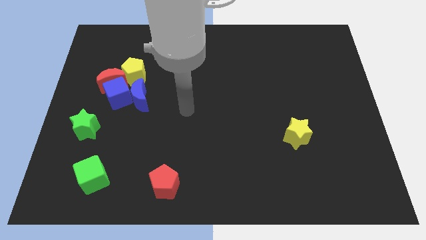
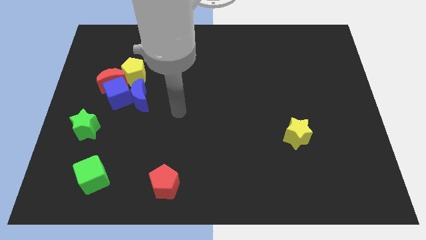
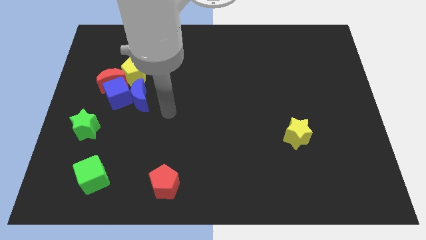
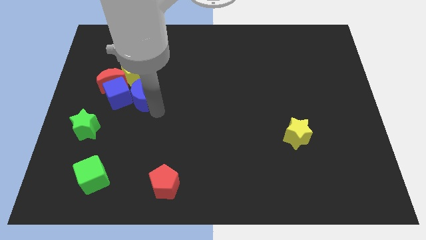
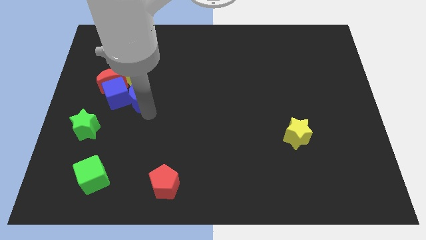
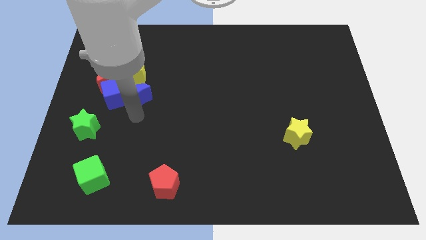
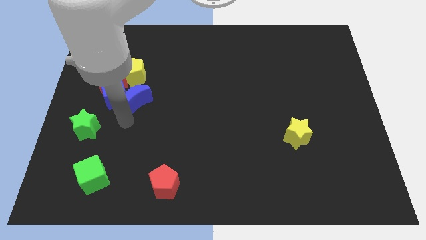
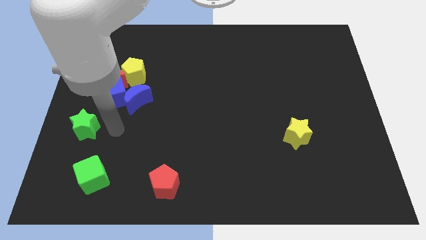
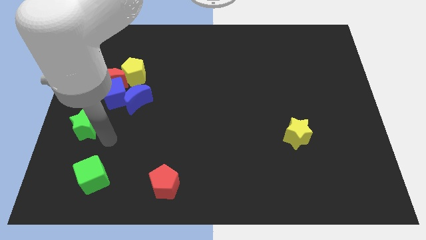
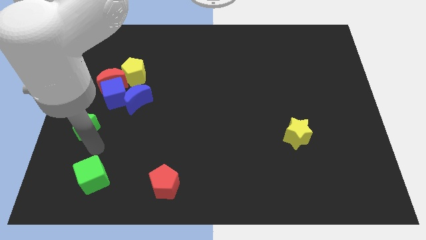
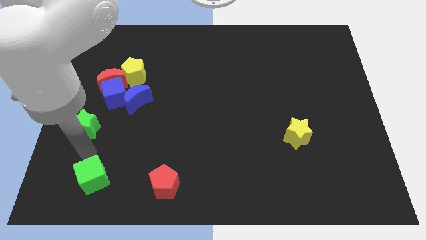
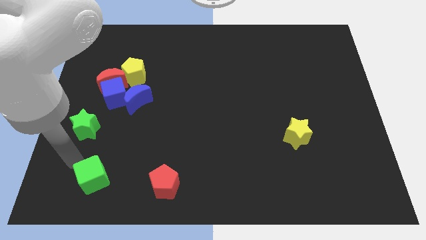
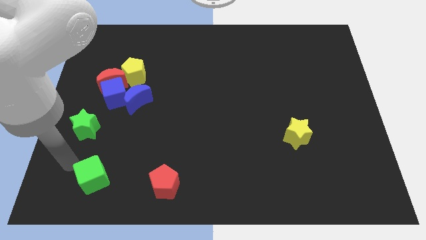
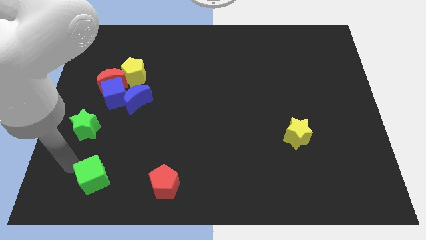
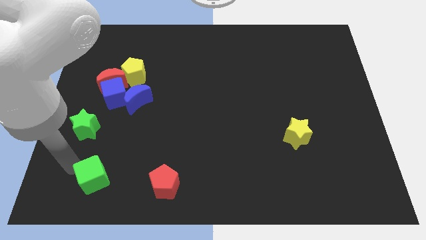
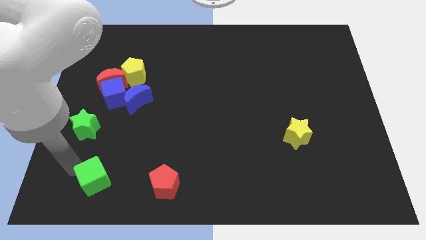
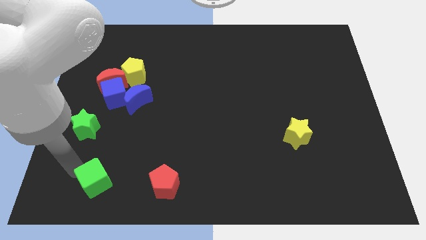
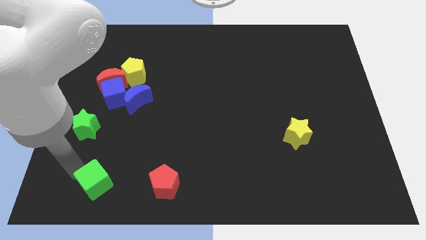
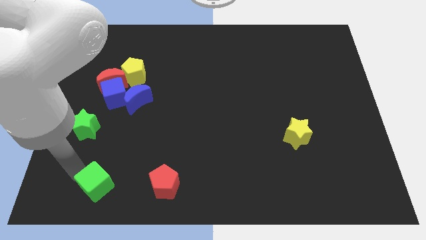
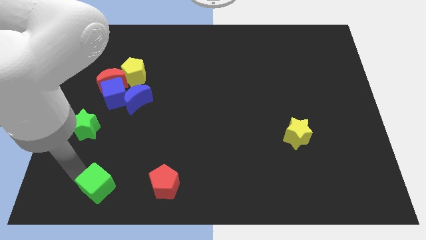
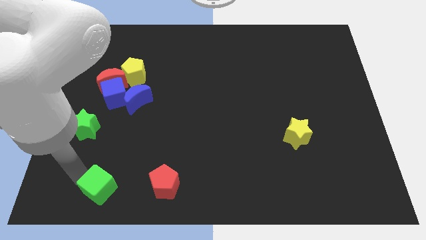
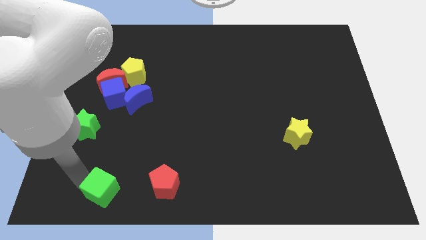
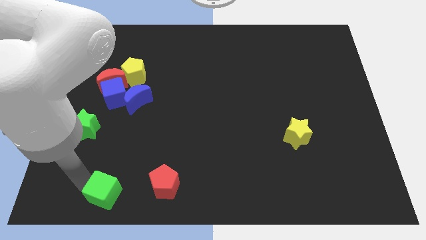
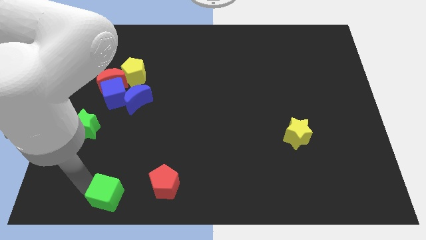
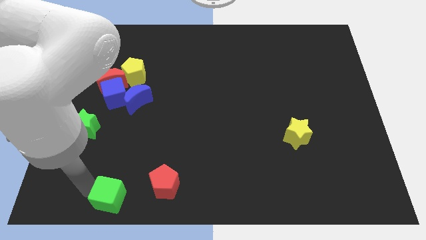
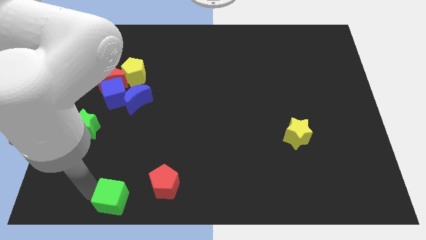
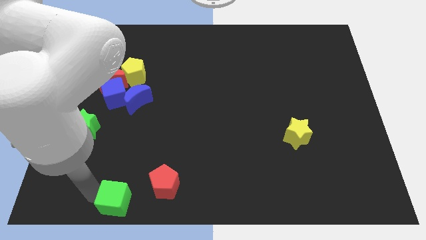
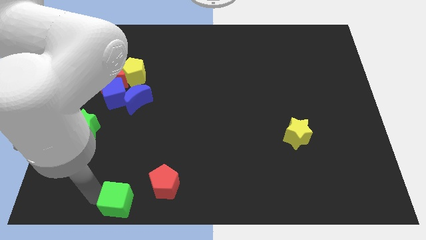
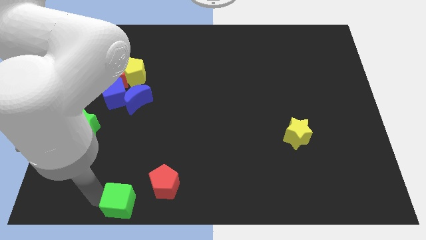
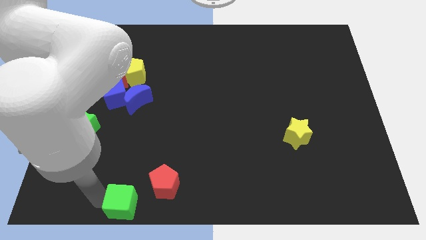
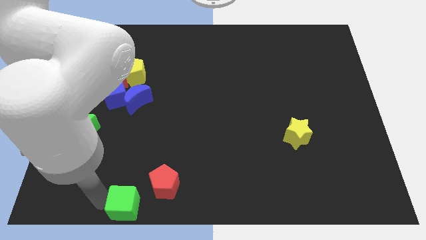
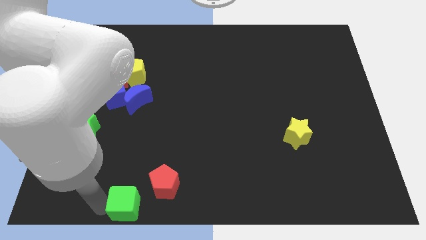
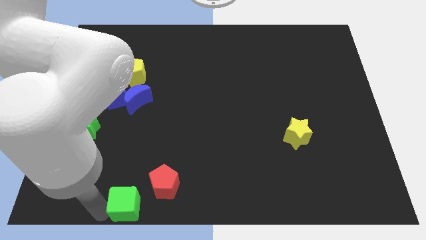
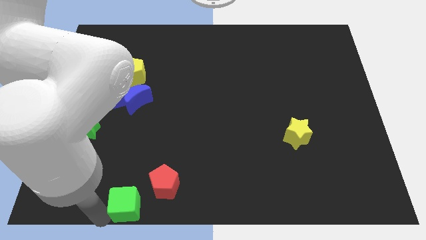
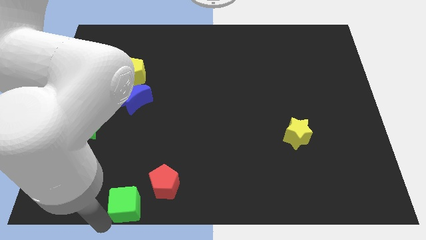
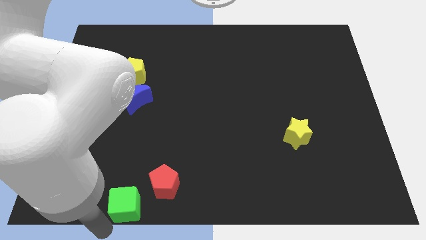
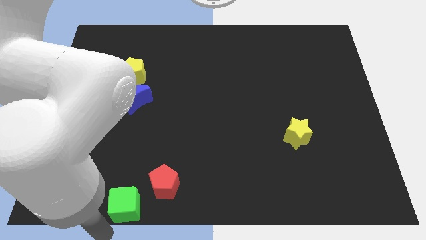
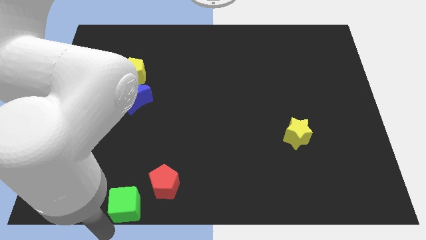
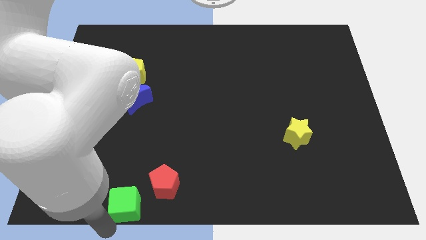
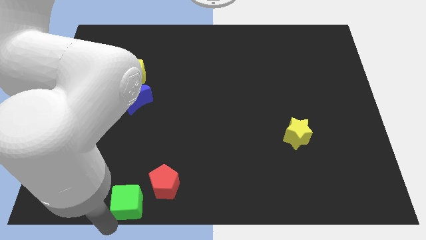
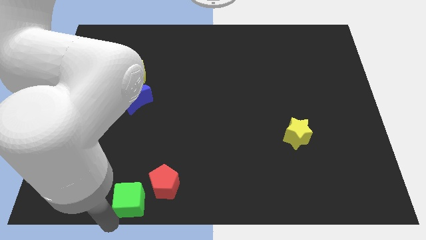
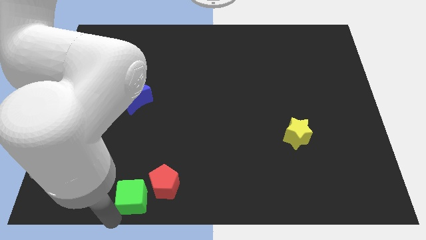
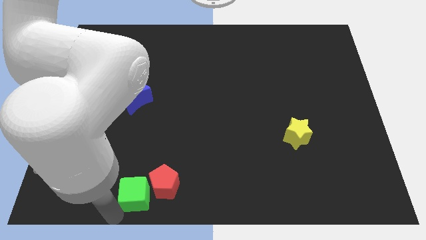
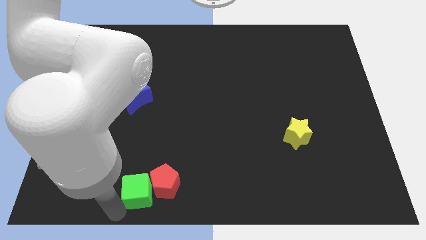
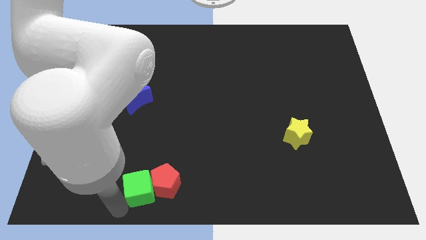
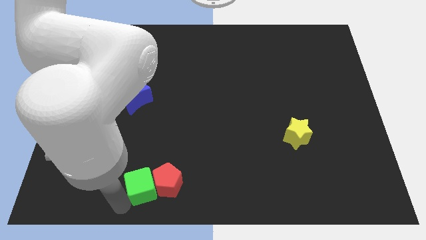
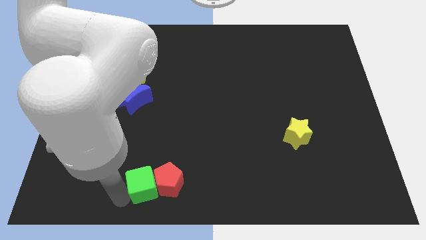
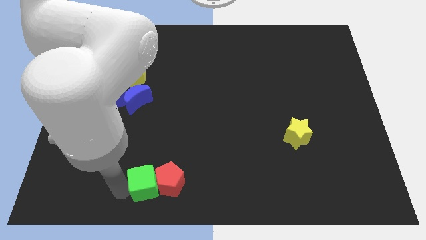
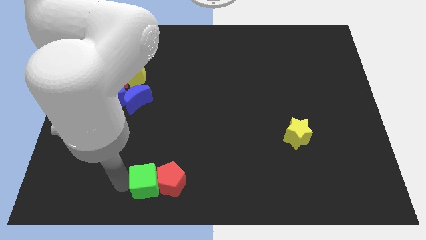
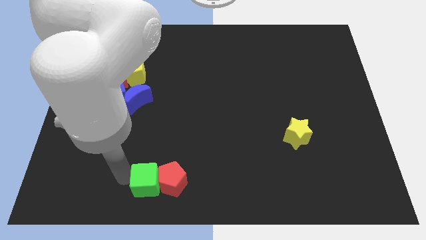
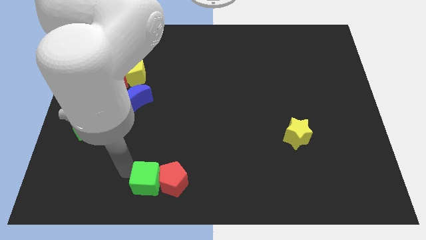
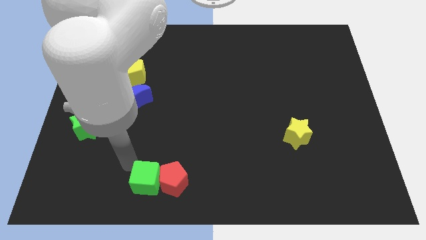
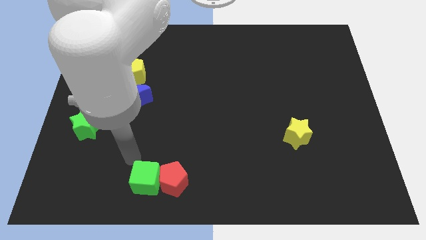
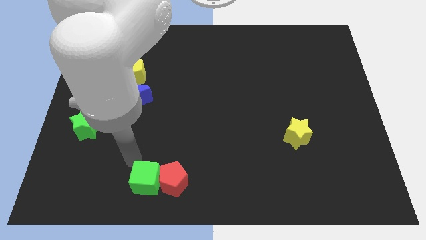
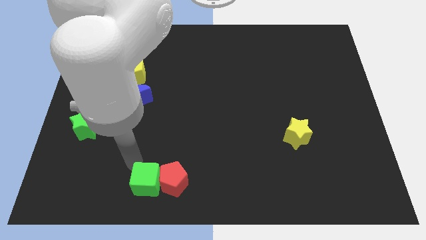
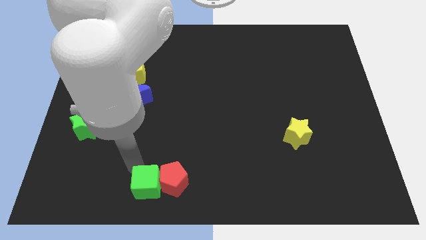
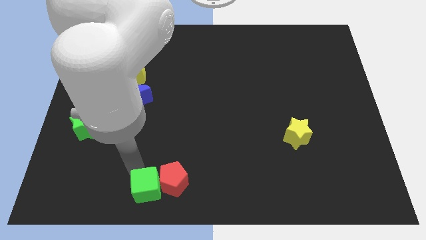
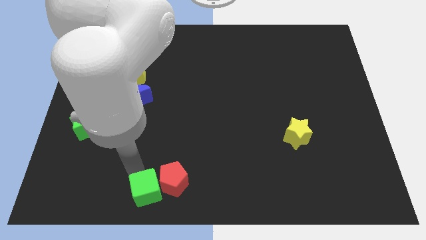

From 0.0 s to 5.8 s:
push the green cube to the bottom

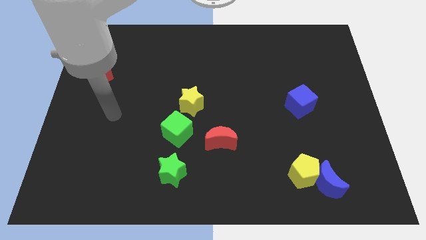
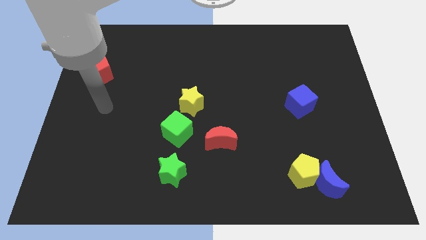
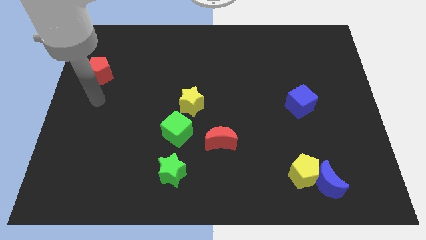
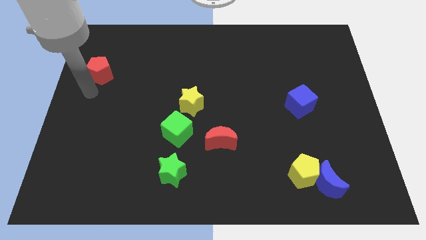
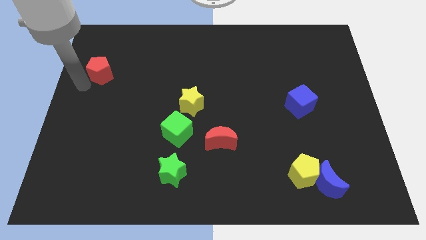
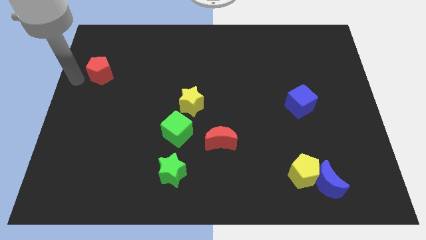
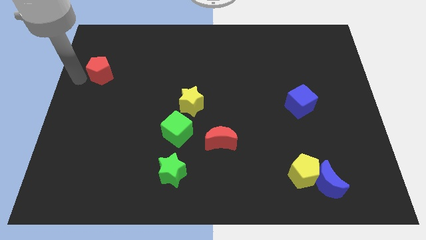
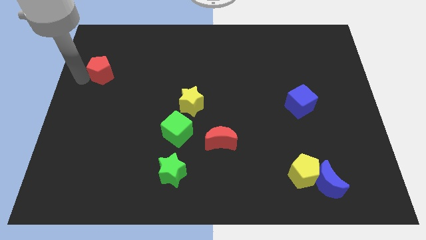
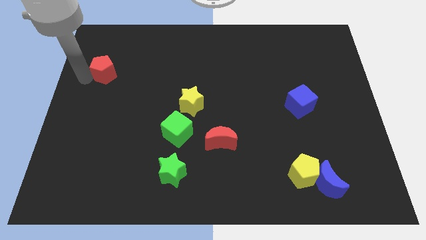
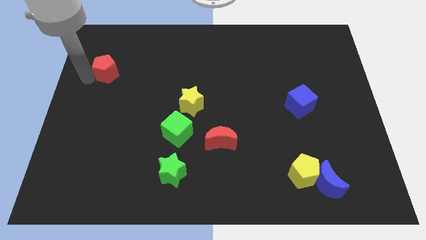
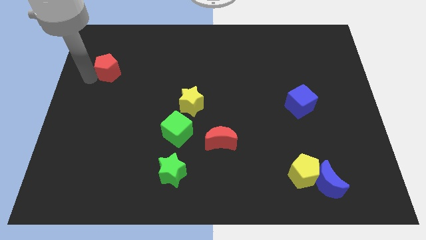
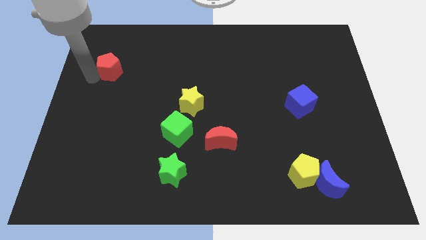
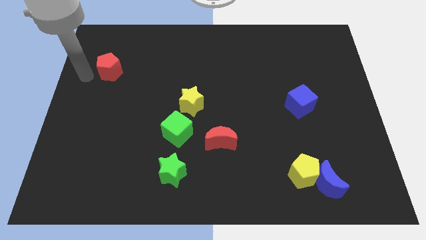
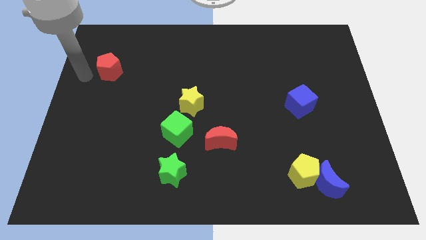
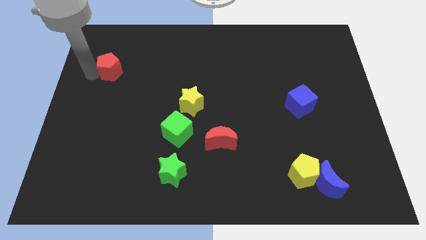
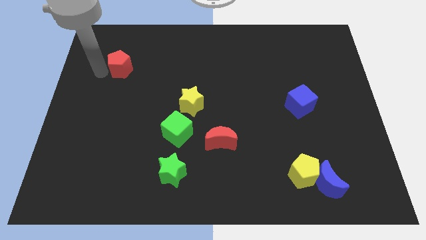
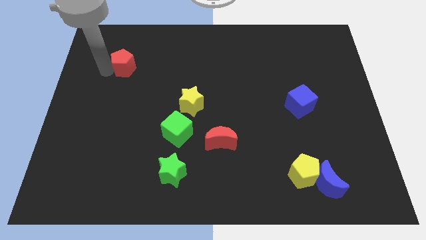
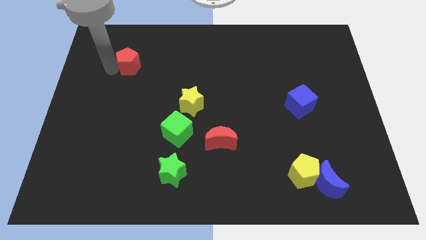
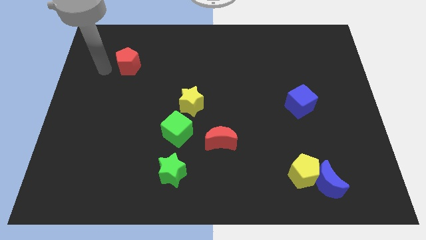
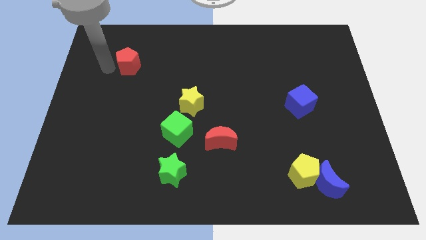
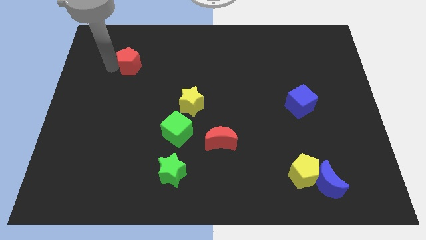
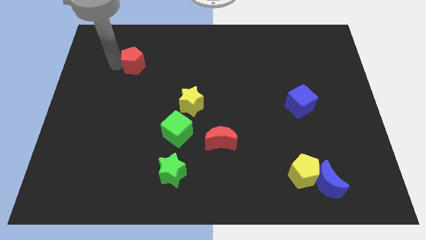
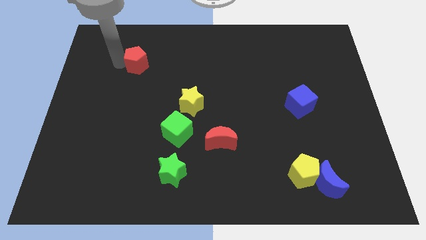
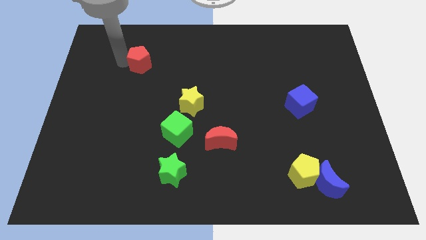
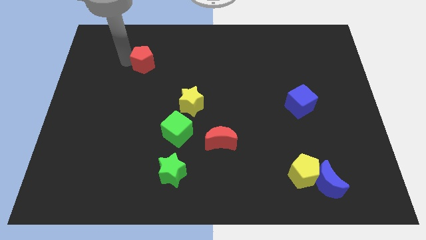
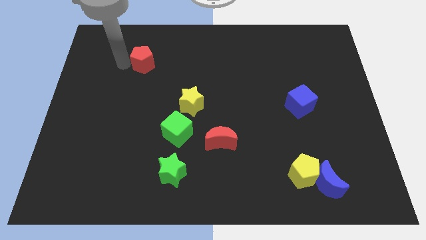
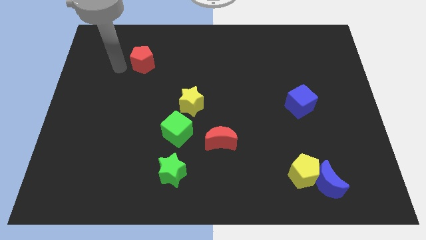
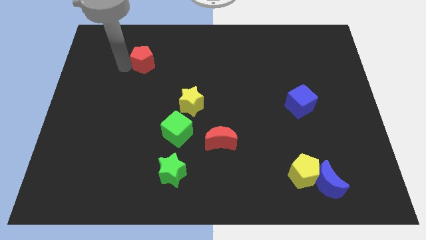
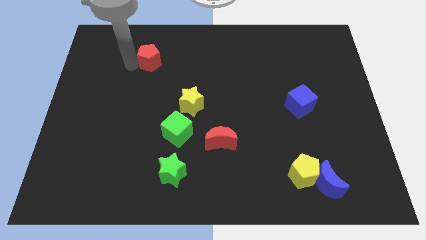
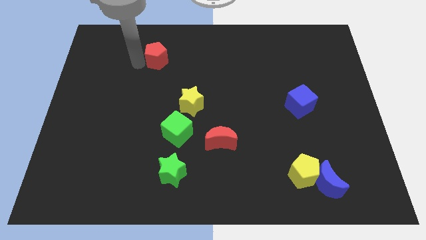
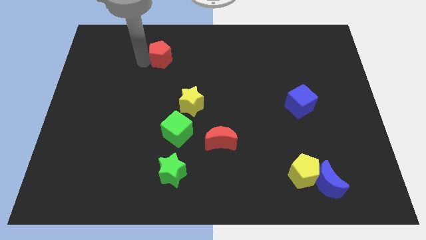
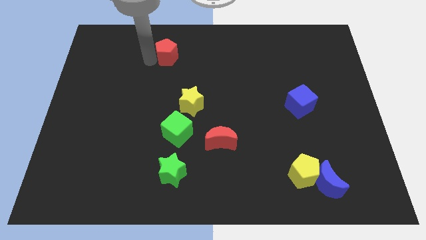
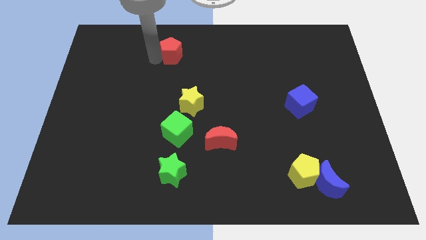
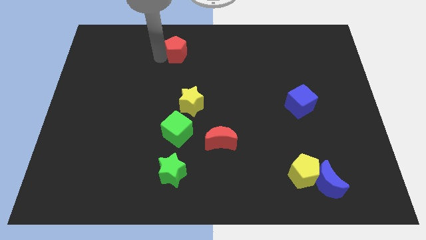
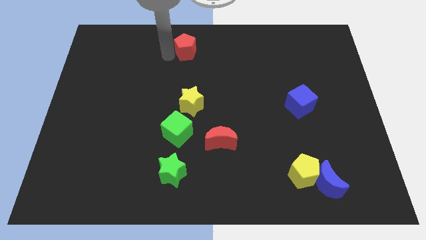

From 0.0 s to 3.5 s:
slide the red pentagon to the top
